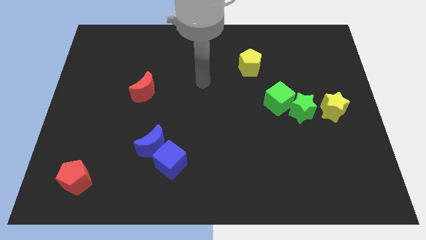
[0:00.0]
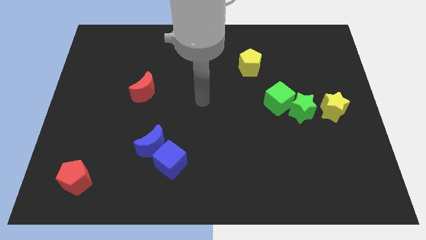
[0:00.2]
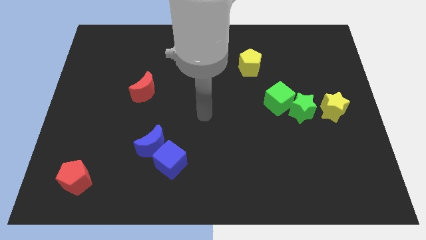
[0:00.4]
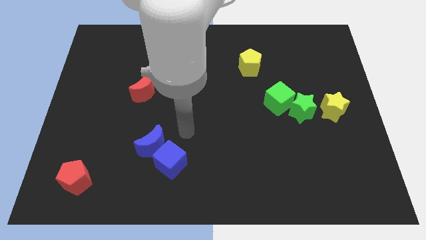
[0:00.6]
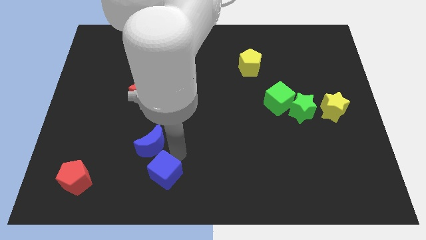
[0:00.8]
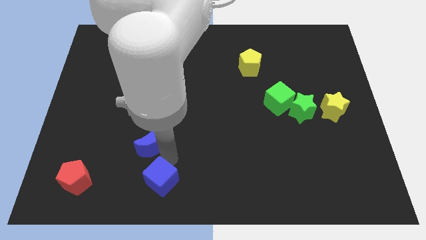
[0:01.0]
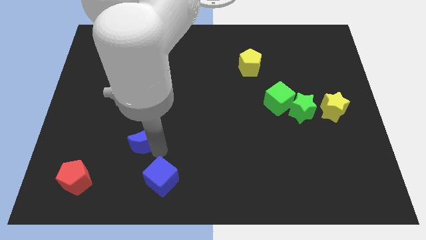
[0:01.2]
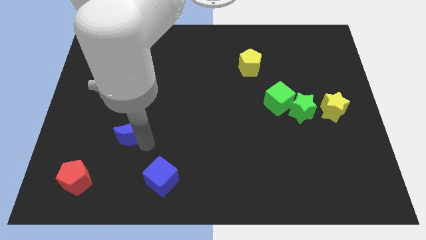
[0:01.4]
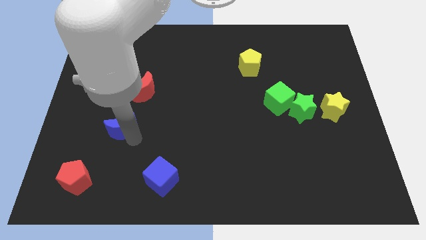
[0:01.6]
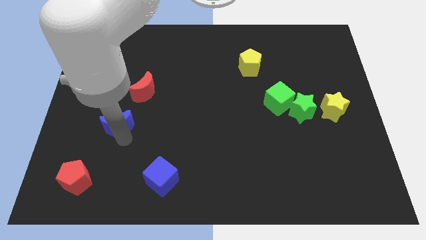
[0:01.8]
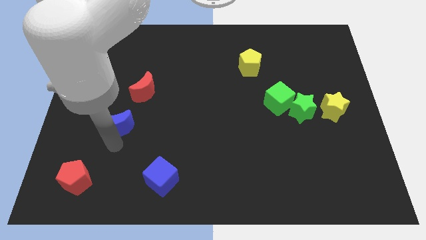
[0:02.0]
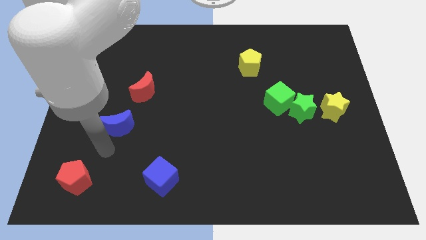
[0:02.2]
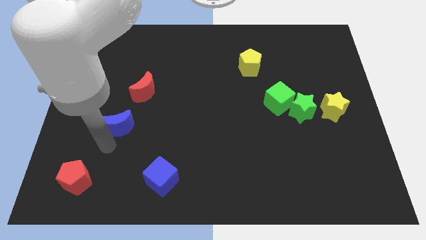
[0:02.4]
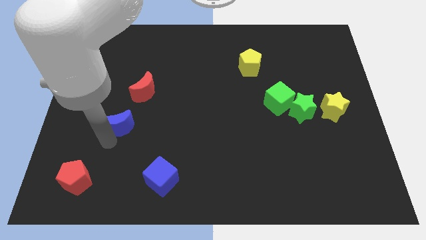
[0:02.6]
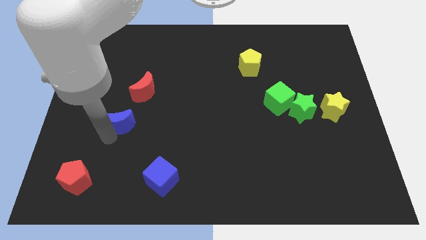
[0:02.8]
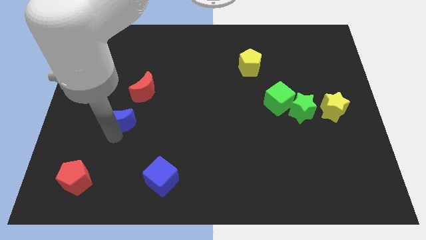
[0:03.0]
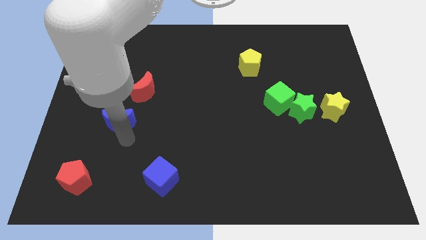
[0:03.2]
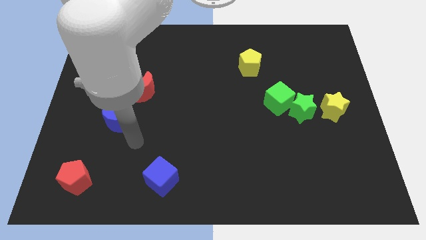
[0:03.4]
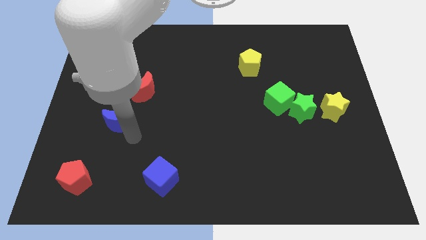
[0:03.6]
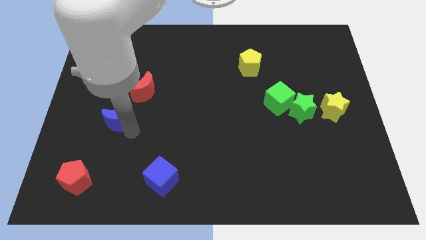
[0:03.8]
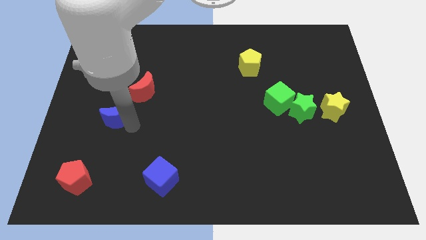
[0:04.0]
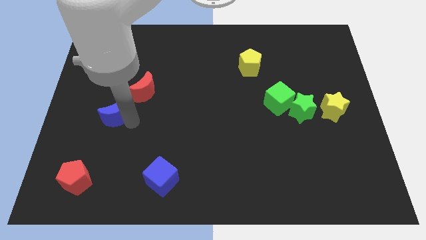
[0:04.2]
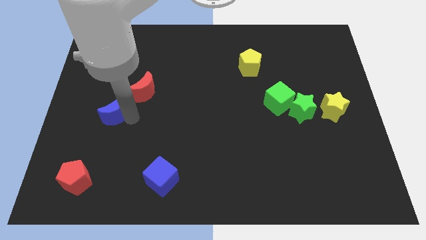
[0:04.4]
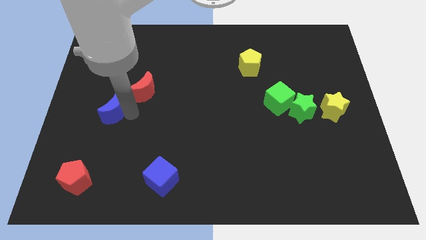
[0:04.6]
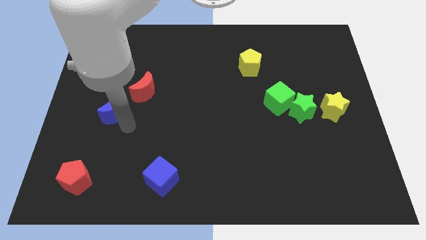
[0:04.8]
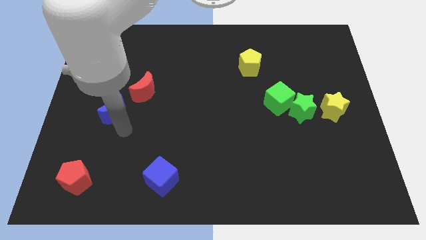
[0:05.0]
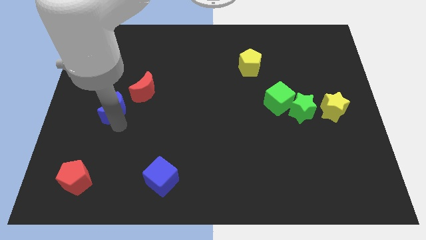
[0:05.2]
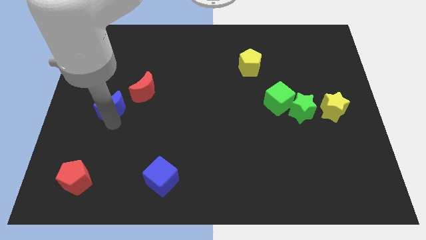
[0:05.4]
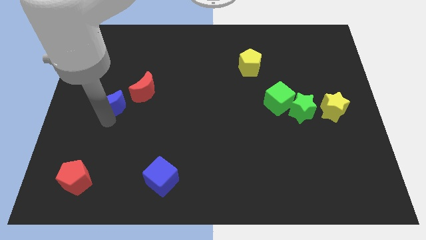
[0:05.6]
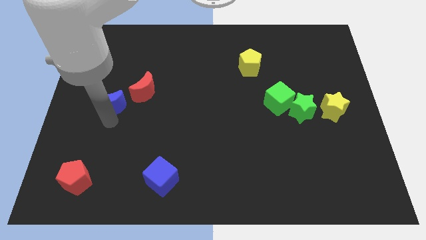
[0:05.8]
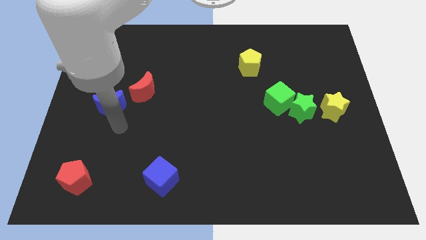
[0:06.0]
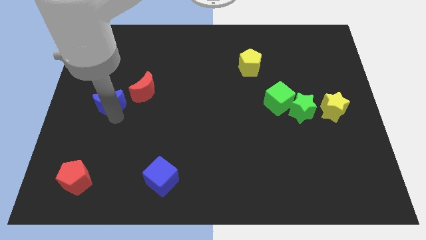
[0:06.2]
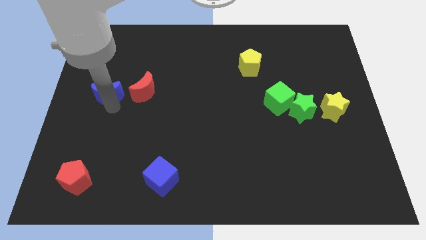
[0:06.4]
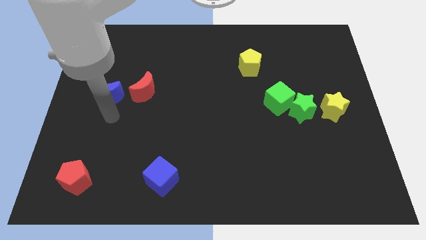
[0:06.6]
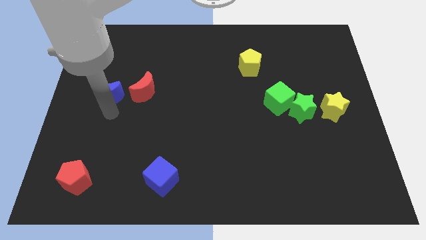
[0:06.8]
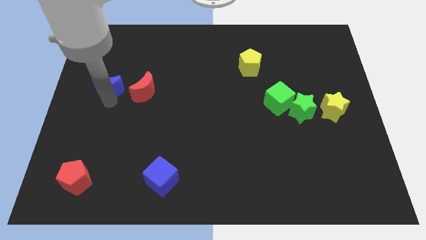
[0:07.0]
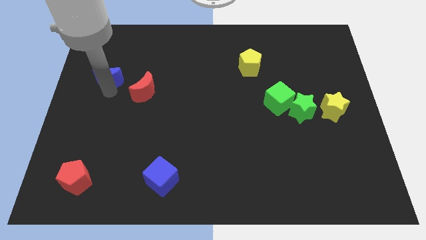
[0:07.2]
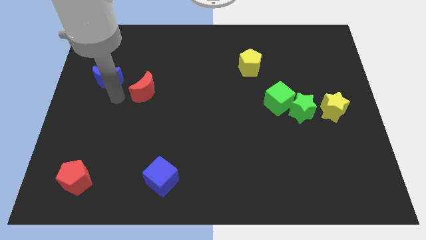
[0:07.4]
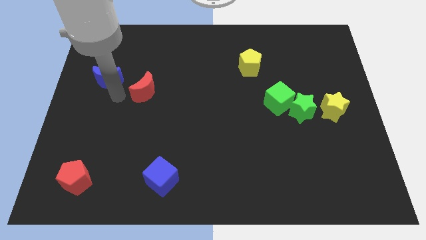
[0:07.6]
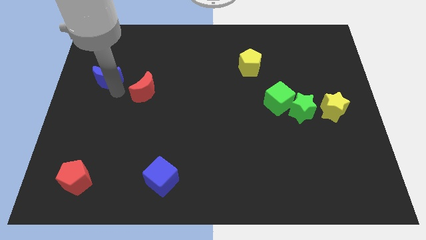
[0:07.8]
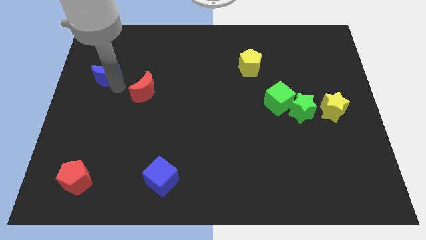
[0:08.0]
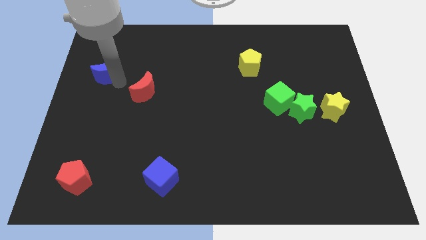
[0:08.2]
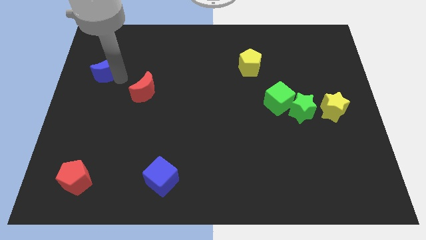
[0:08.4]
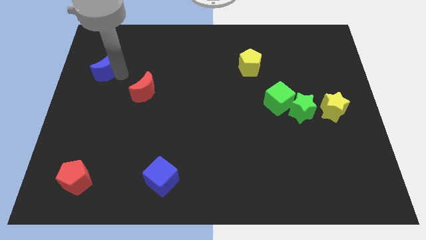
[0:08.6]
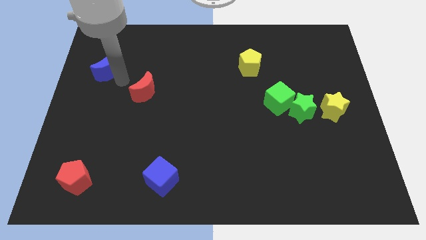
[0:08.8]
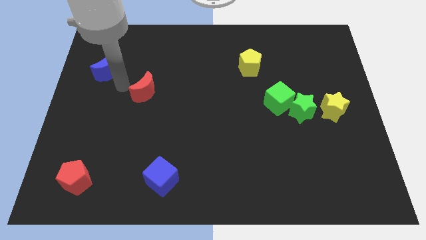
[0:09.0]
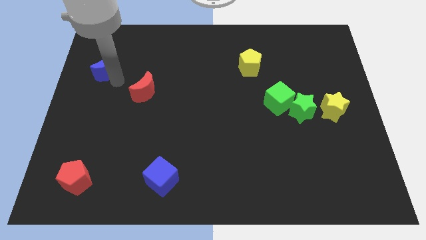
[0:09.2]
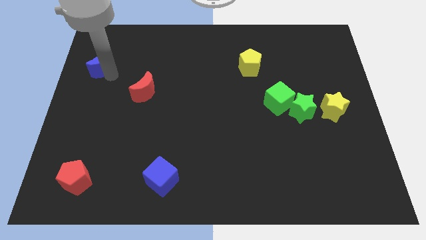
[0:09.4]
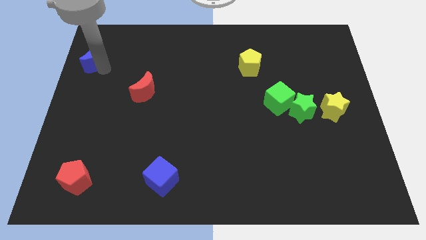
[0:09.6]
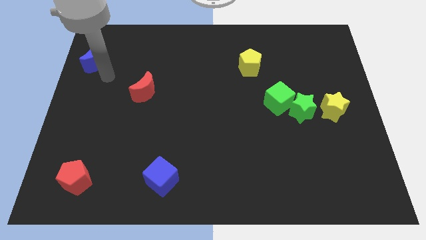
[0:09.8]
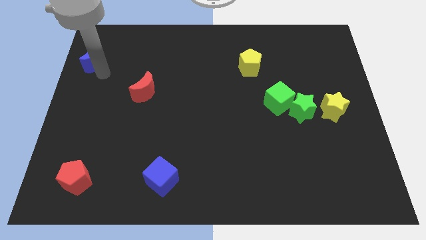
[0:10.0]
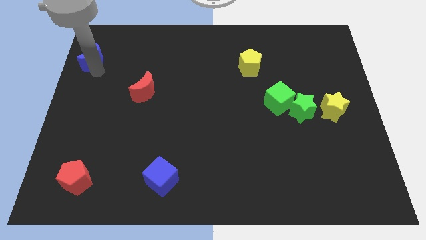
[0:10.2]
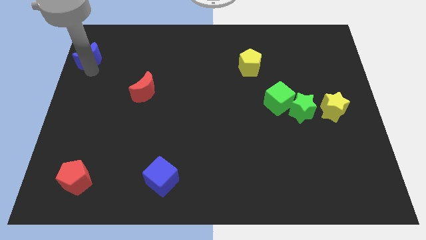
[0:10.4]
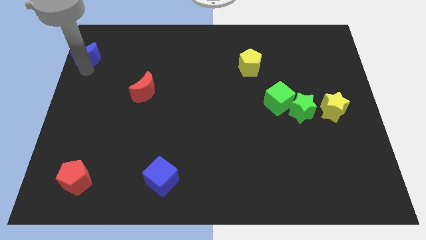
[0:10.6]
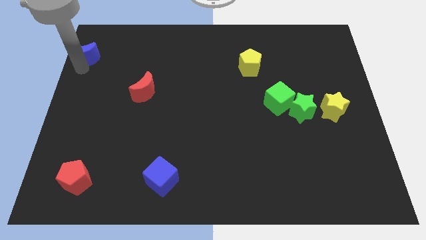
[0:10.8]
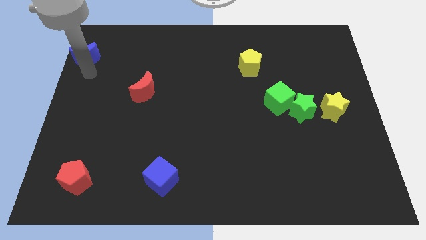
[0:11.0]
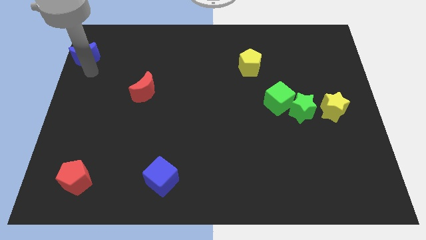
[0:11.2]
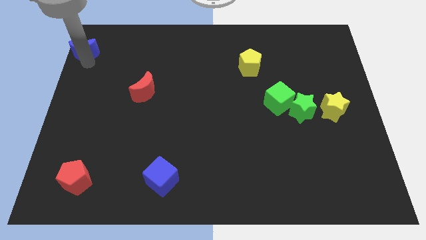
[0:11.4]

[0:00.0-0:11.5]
put the blue moon to the top left corner

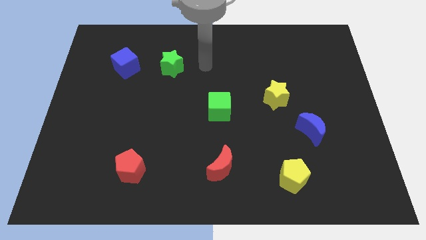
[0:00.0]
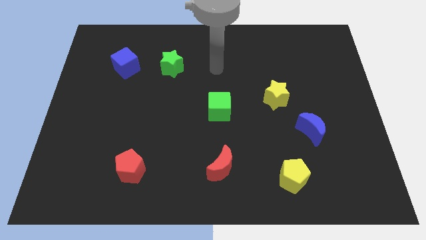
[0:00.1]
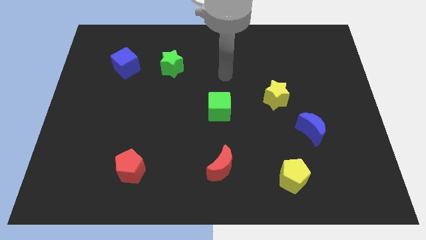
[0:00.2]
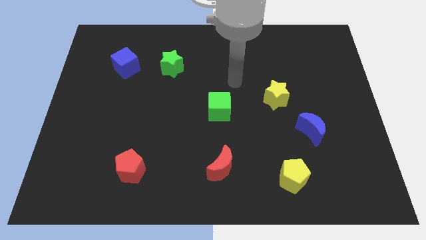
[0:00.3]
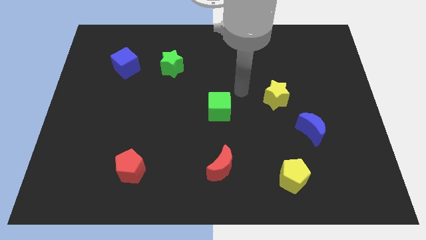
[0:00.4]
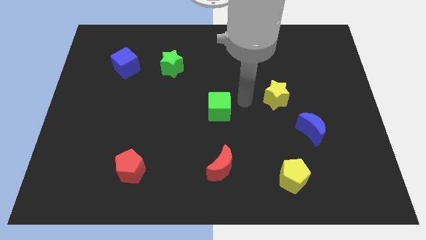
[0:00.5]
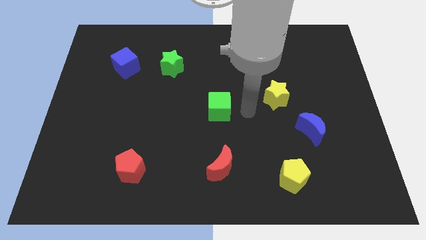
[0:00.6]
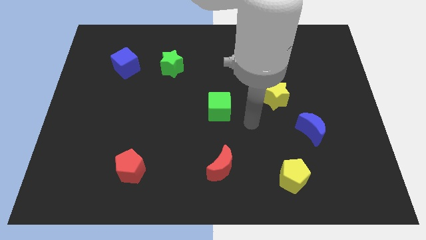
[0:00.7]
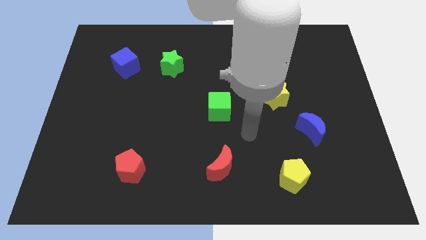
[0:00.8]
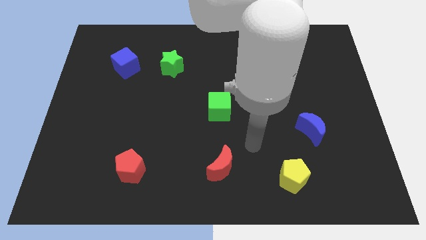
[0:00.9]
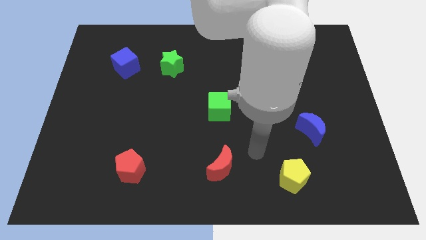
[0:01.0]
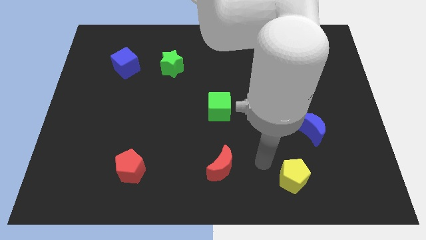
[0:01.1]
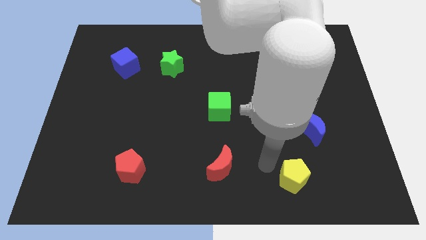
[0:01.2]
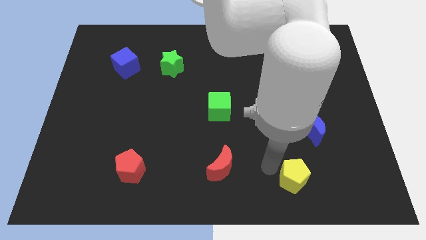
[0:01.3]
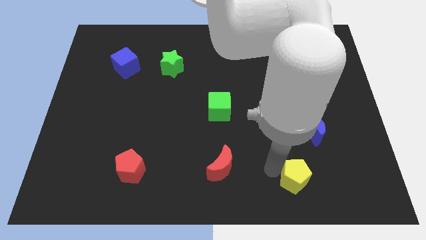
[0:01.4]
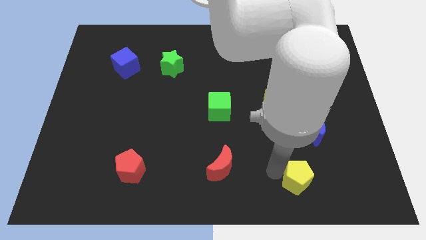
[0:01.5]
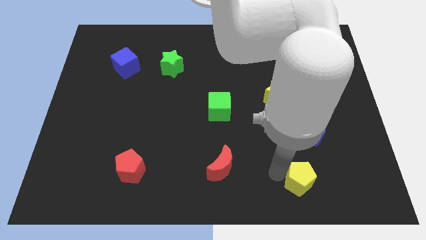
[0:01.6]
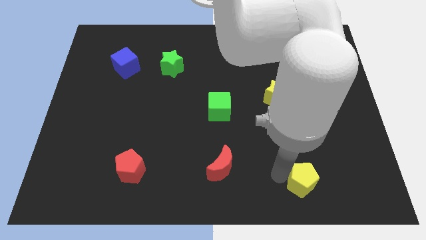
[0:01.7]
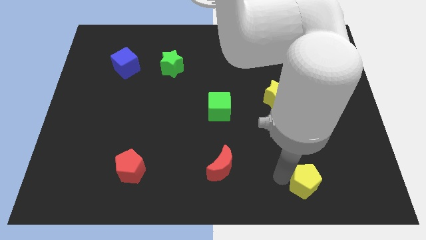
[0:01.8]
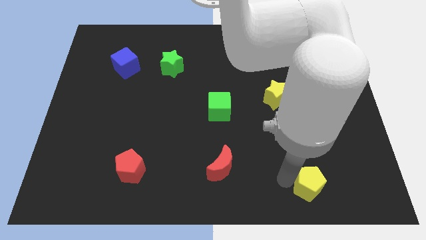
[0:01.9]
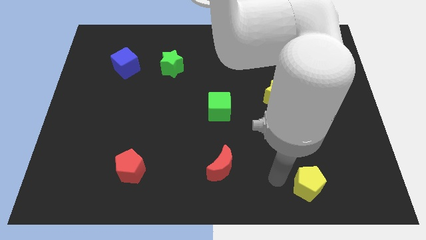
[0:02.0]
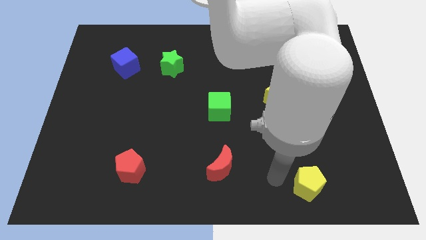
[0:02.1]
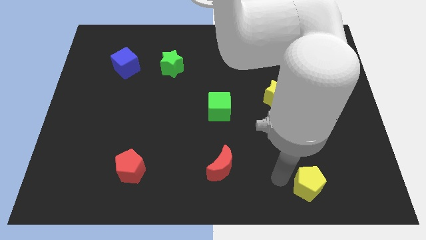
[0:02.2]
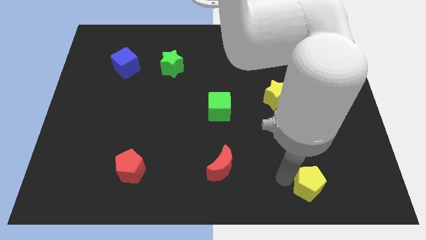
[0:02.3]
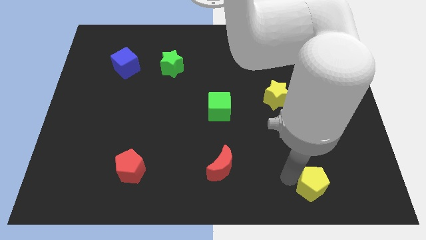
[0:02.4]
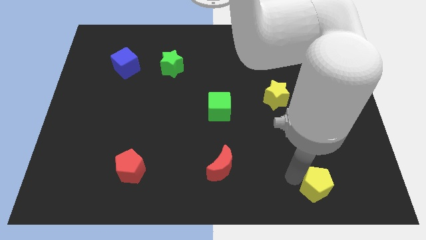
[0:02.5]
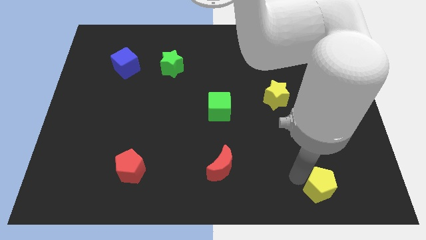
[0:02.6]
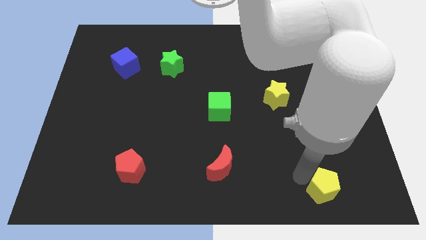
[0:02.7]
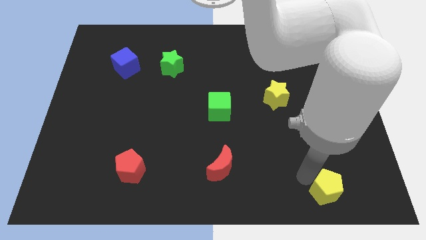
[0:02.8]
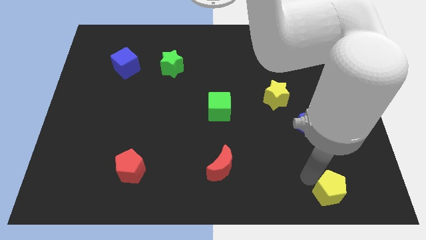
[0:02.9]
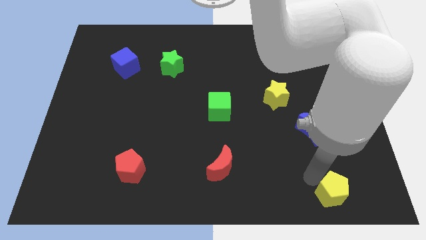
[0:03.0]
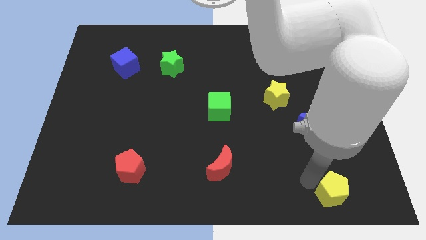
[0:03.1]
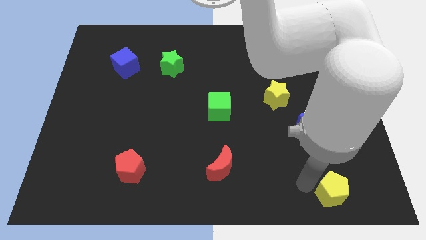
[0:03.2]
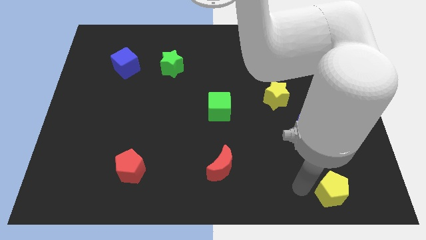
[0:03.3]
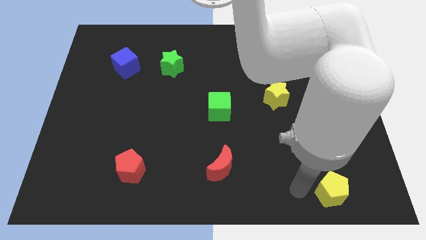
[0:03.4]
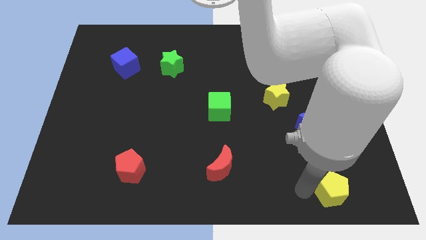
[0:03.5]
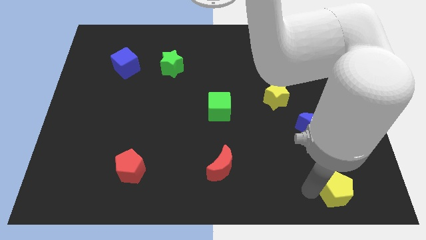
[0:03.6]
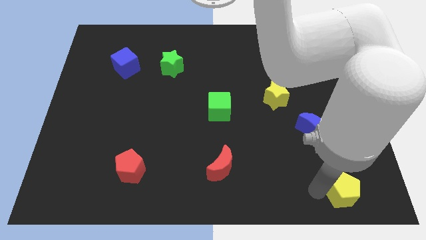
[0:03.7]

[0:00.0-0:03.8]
push the yellow pentagon to the bottom right of the board
